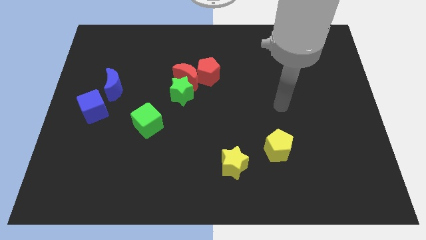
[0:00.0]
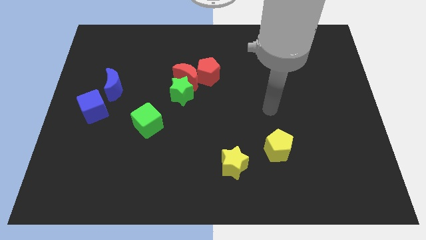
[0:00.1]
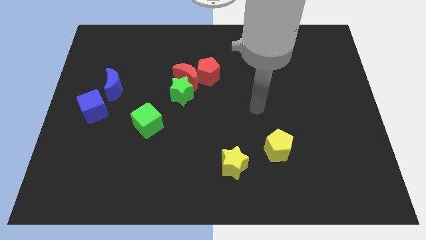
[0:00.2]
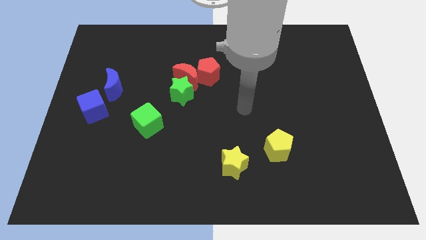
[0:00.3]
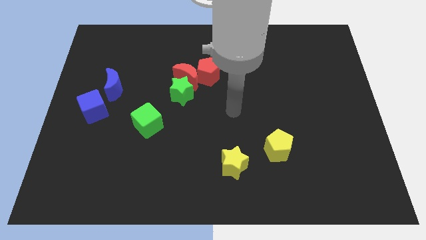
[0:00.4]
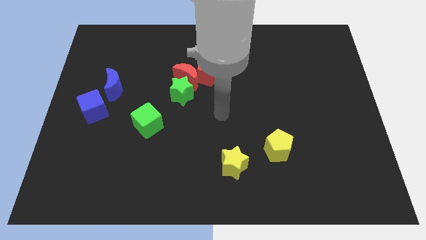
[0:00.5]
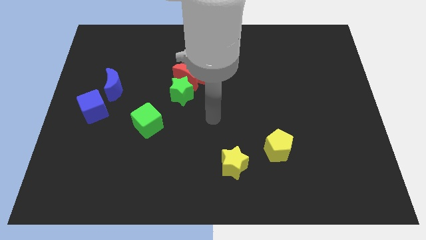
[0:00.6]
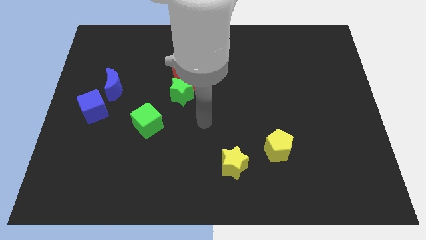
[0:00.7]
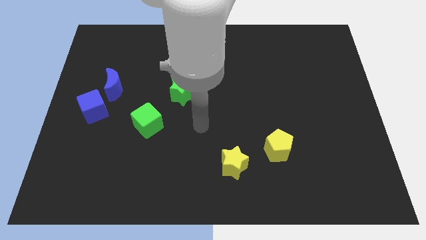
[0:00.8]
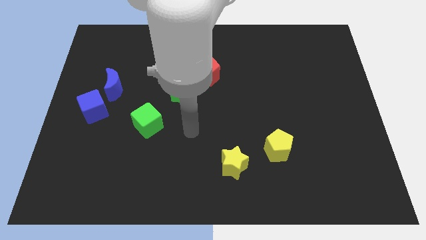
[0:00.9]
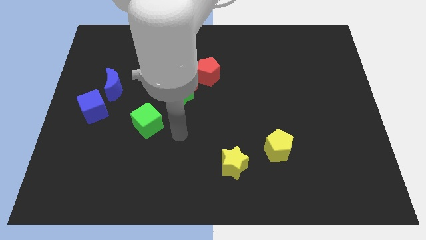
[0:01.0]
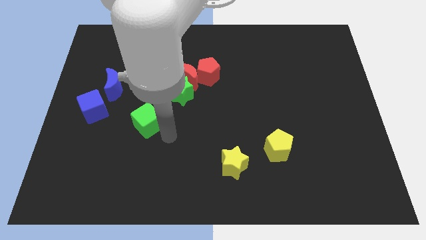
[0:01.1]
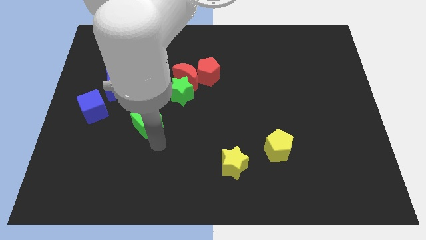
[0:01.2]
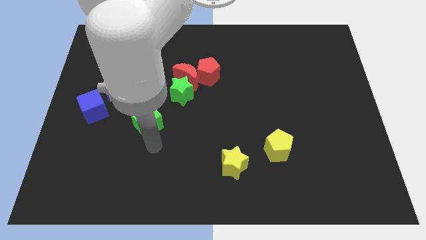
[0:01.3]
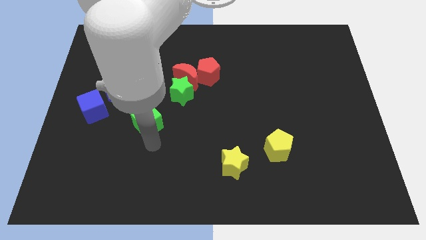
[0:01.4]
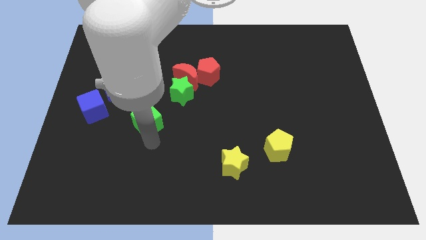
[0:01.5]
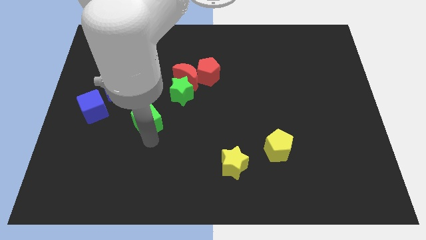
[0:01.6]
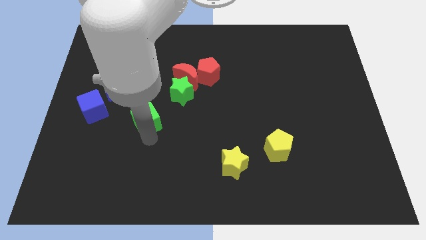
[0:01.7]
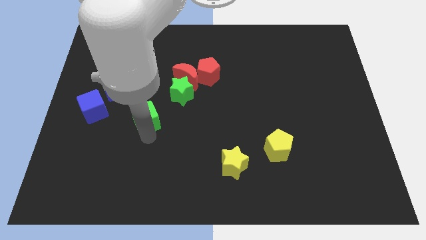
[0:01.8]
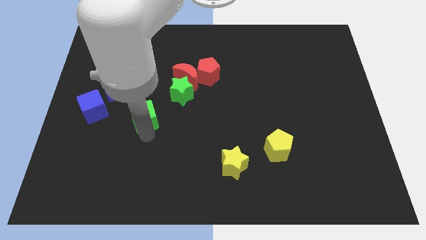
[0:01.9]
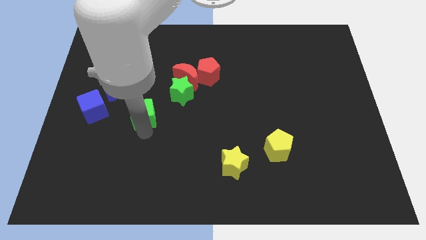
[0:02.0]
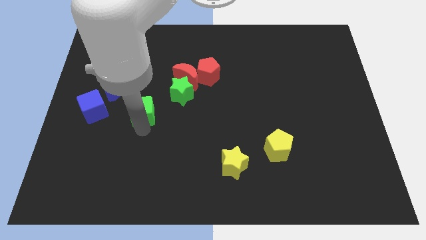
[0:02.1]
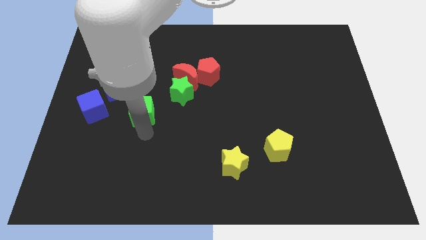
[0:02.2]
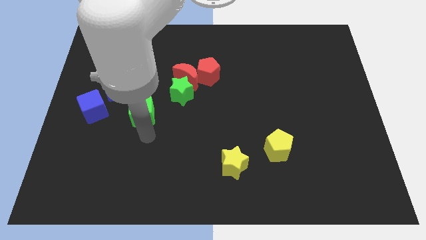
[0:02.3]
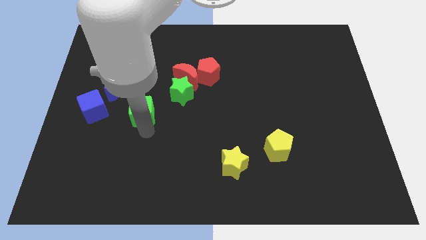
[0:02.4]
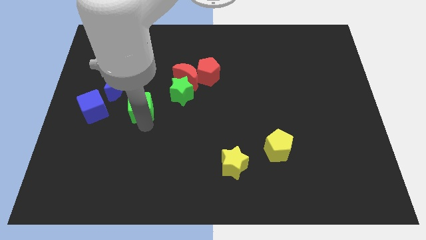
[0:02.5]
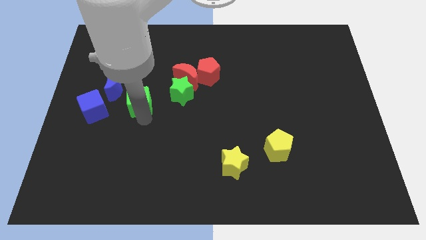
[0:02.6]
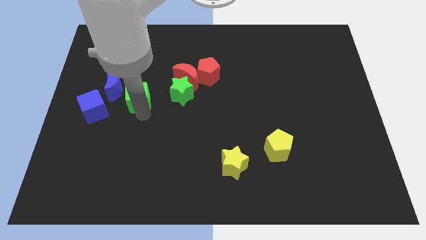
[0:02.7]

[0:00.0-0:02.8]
slightly slide the green cube diagonally upwards and to the left

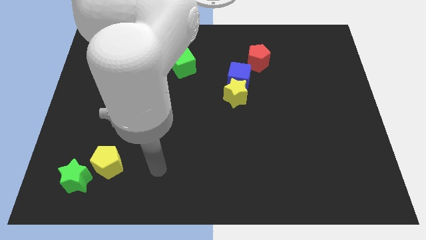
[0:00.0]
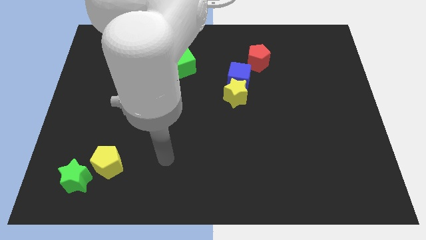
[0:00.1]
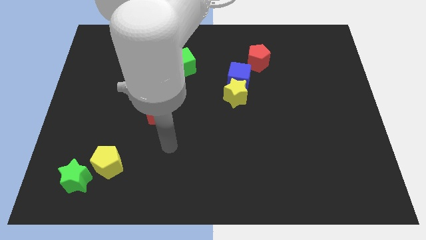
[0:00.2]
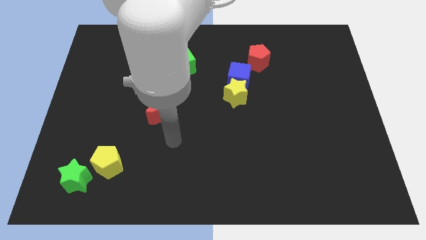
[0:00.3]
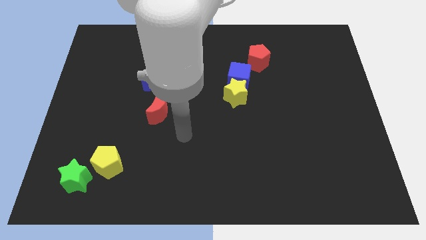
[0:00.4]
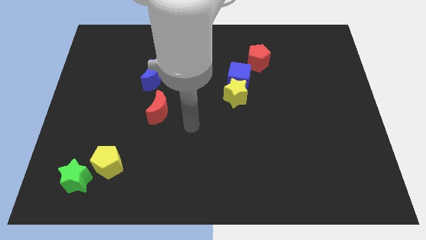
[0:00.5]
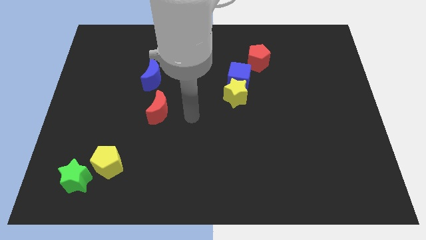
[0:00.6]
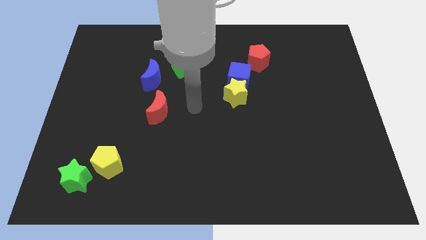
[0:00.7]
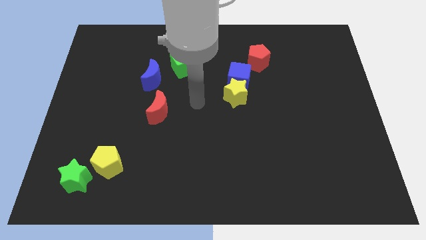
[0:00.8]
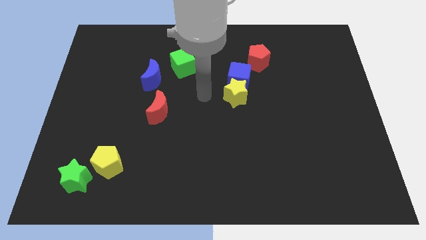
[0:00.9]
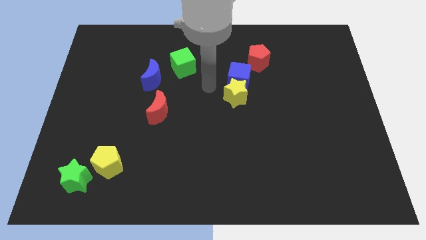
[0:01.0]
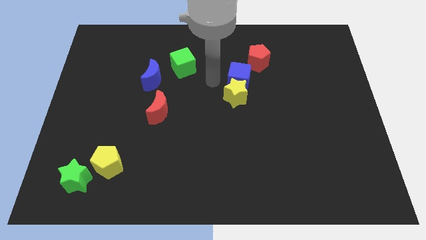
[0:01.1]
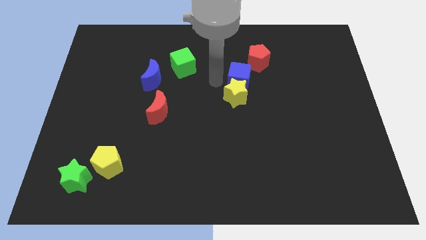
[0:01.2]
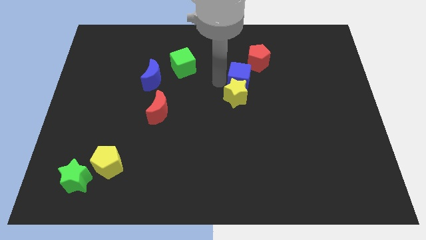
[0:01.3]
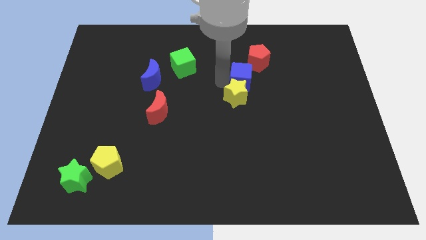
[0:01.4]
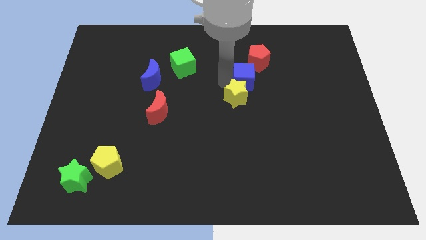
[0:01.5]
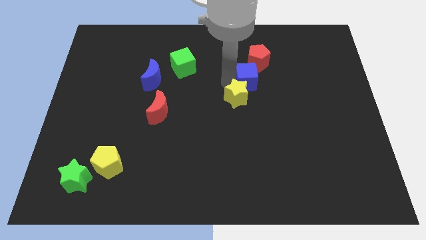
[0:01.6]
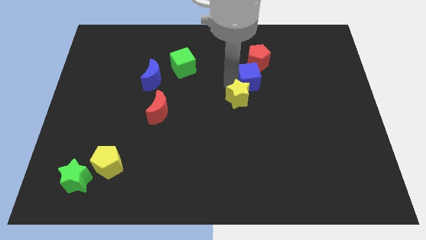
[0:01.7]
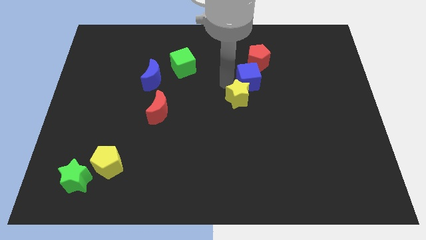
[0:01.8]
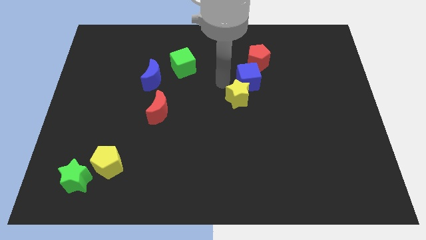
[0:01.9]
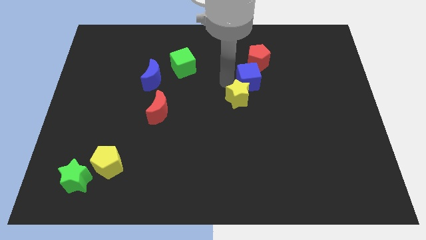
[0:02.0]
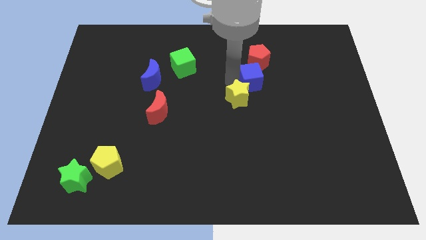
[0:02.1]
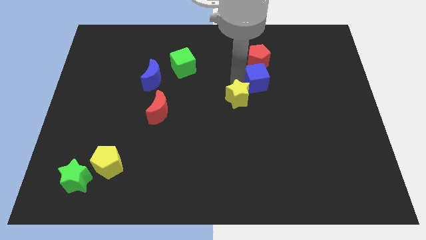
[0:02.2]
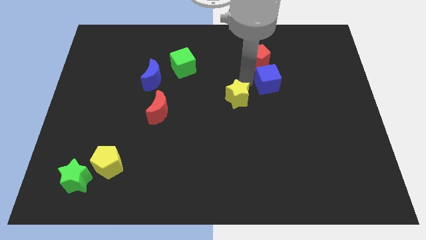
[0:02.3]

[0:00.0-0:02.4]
slide the blue cube a little right

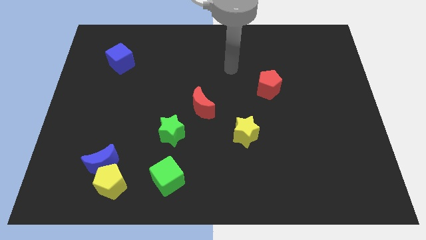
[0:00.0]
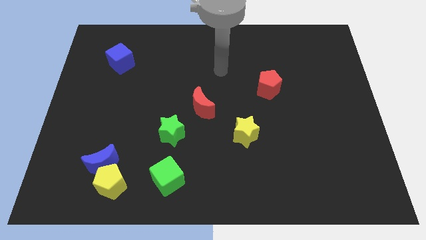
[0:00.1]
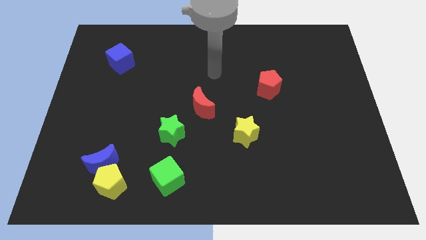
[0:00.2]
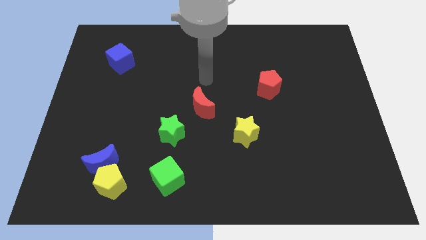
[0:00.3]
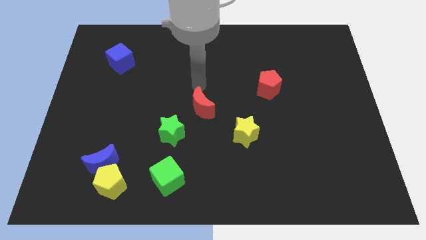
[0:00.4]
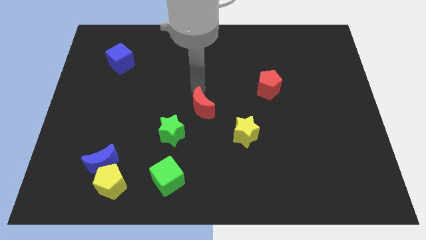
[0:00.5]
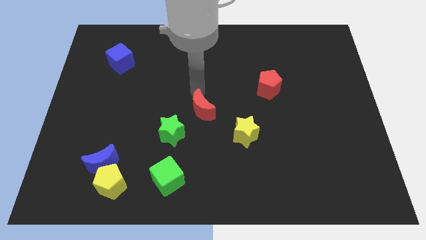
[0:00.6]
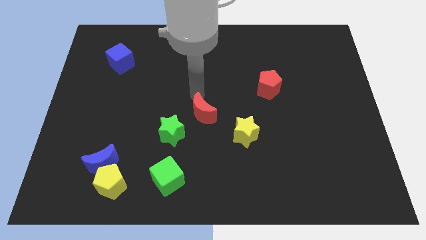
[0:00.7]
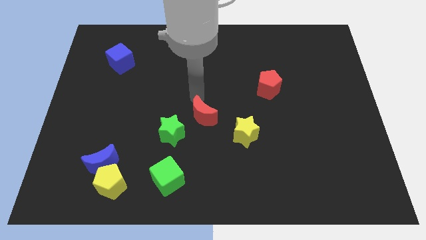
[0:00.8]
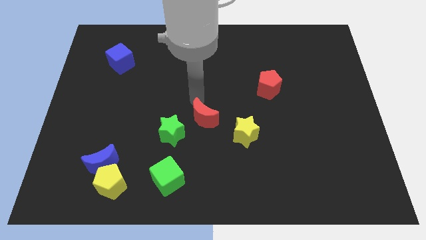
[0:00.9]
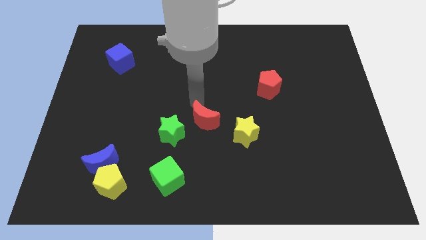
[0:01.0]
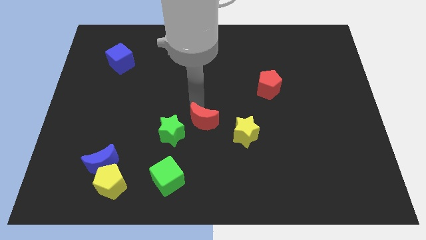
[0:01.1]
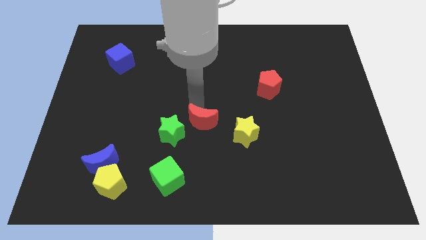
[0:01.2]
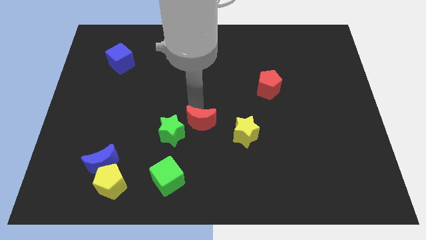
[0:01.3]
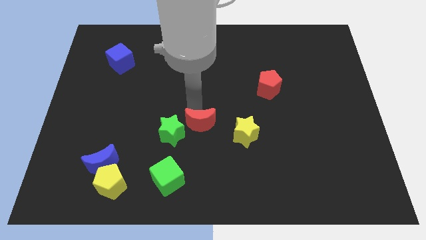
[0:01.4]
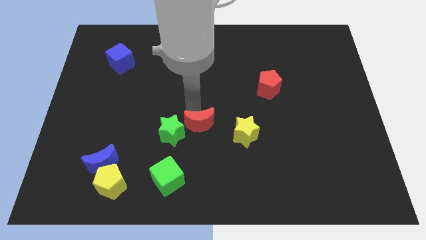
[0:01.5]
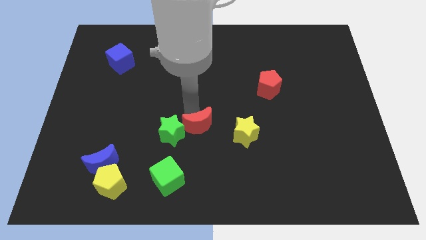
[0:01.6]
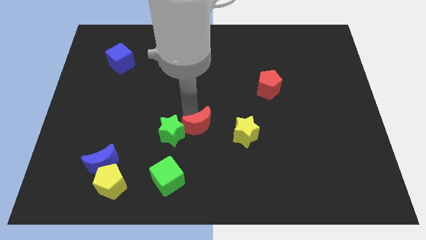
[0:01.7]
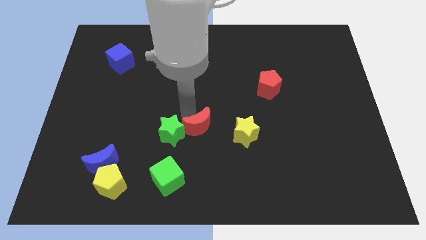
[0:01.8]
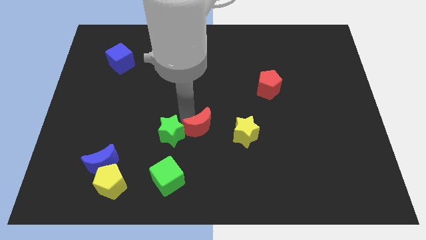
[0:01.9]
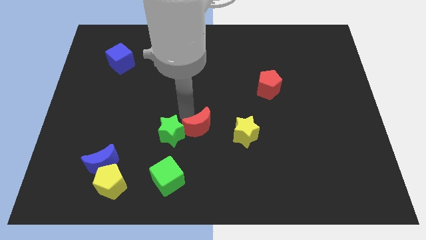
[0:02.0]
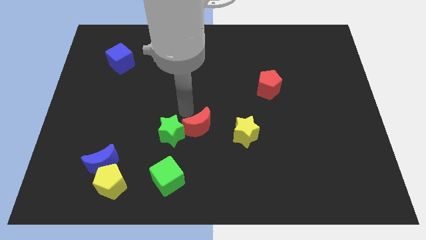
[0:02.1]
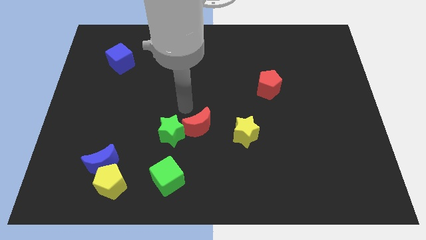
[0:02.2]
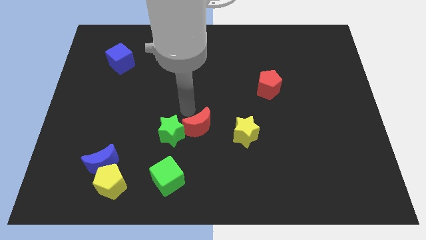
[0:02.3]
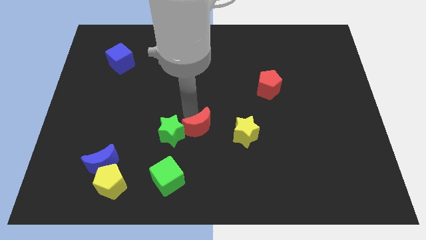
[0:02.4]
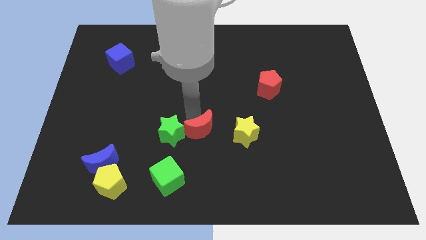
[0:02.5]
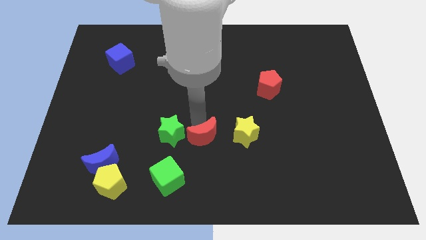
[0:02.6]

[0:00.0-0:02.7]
push the red moon down somewhat
